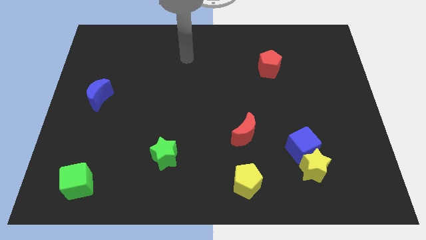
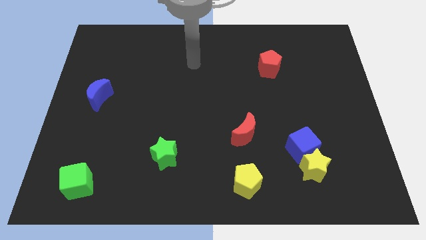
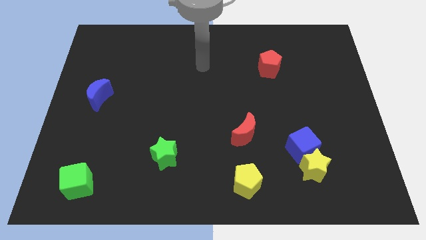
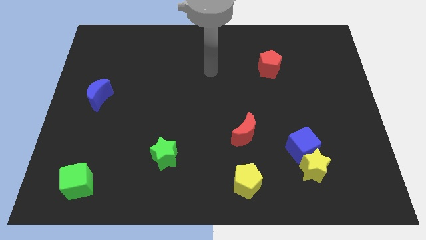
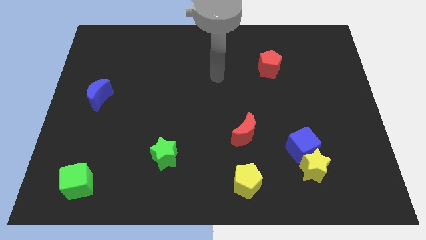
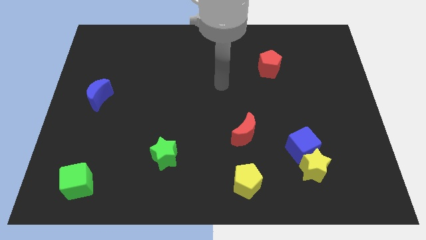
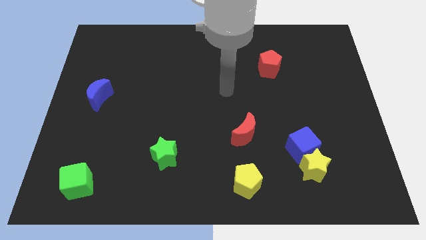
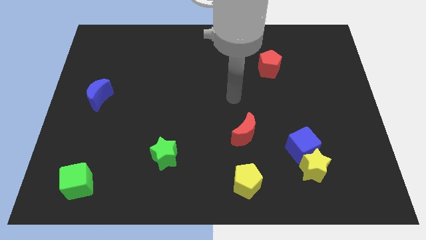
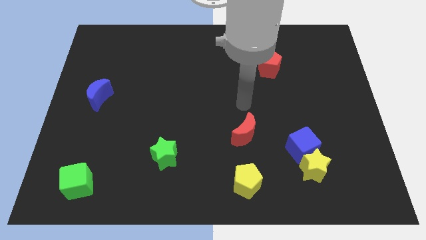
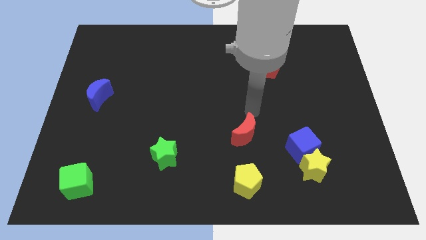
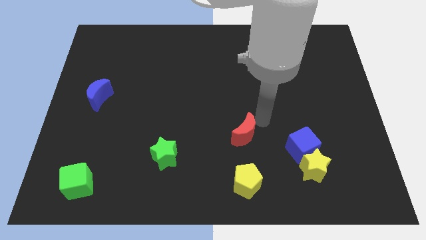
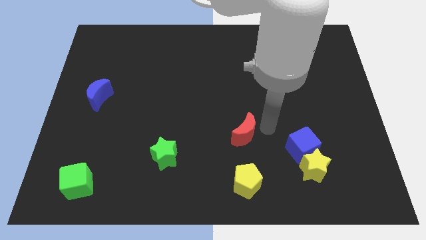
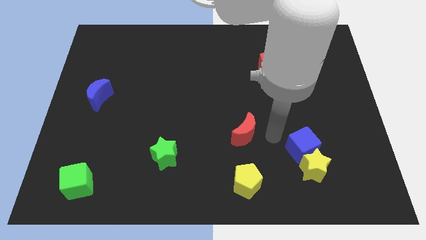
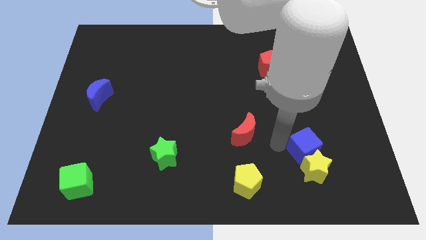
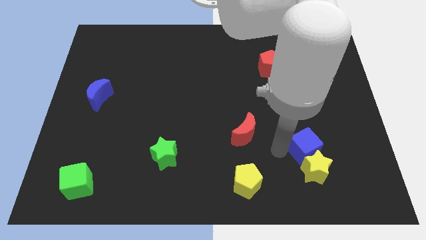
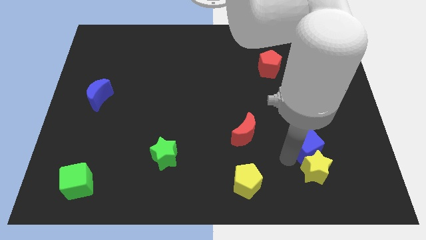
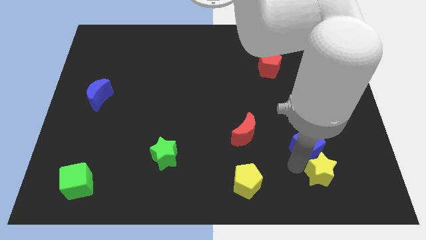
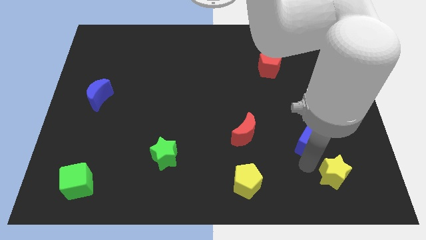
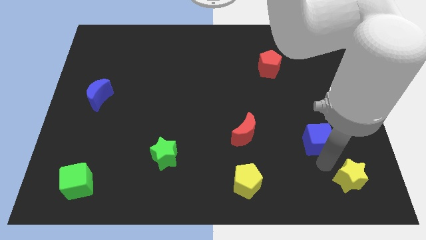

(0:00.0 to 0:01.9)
separate the blue cube from the yellow star

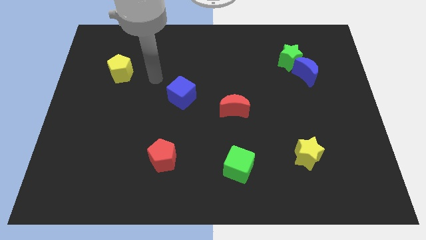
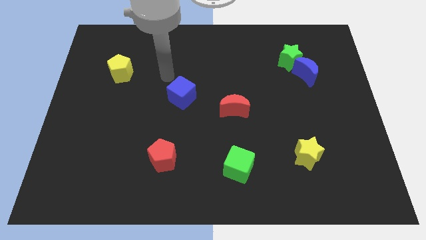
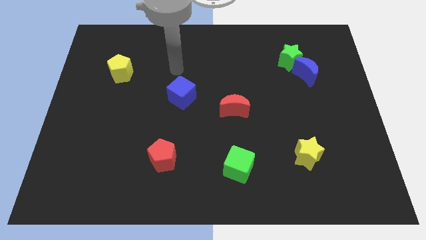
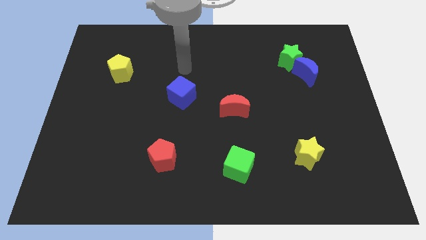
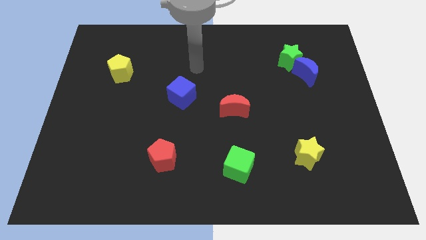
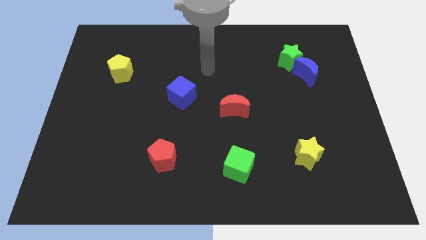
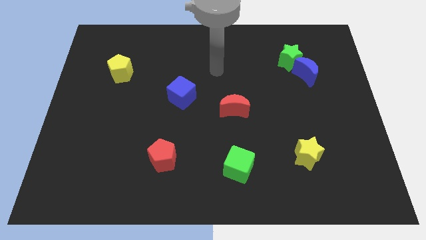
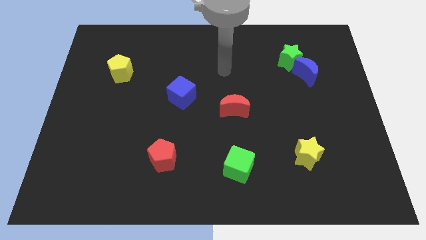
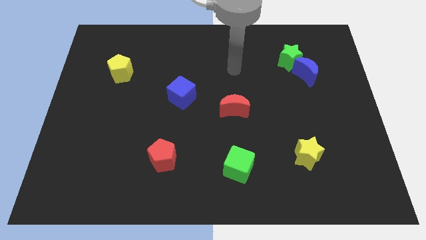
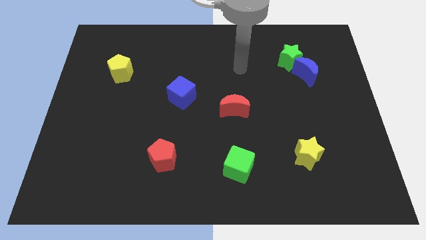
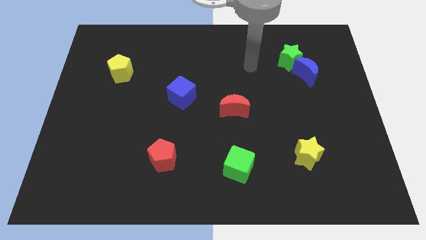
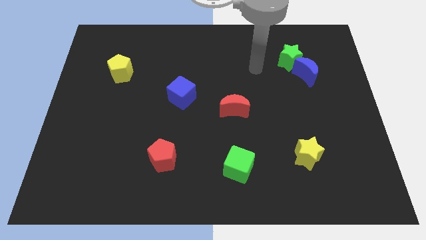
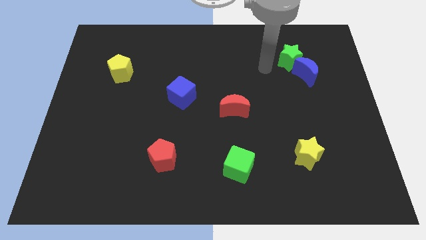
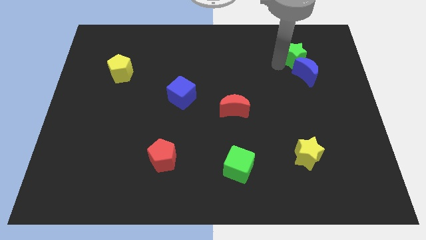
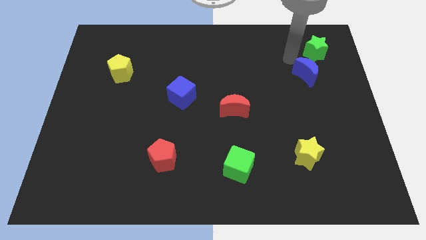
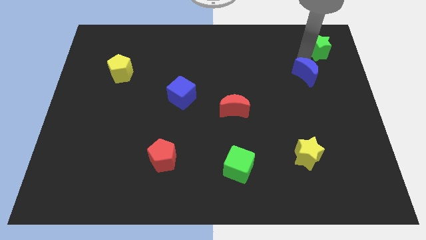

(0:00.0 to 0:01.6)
separate the blue moon from the green star

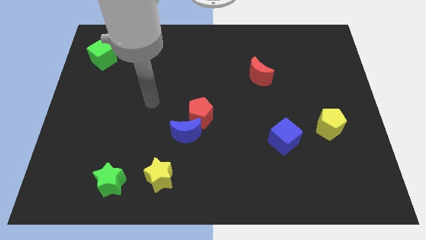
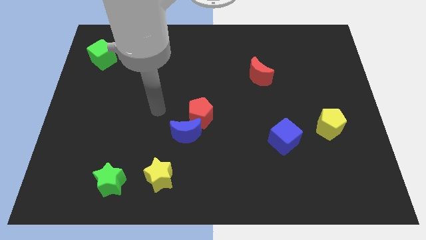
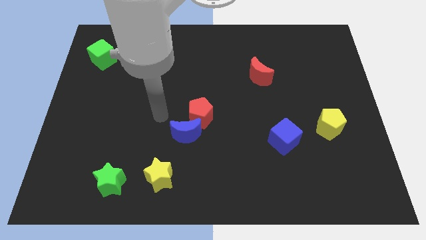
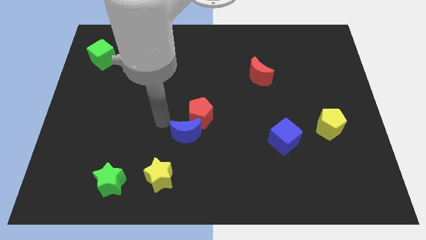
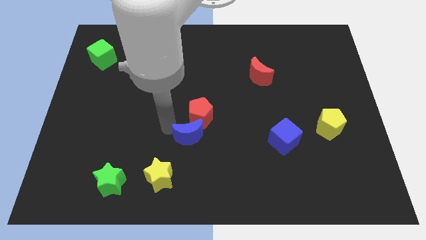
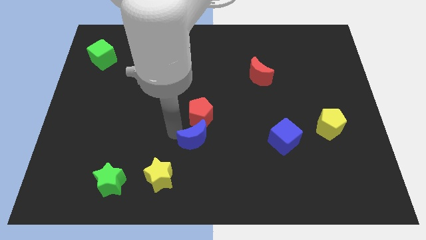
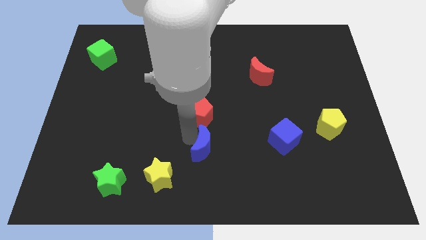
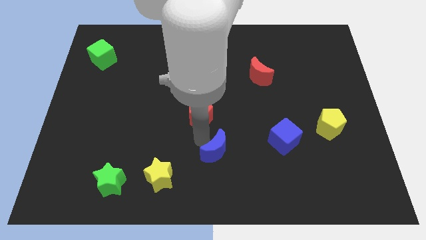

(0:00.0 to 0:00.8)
pull the red pentagon apart from the blue moon

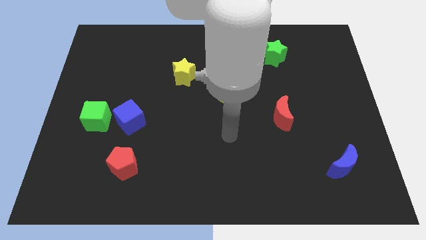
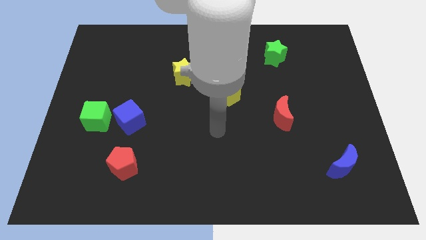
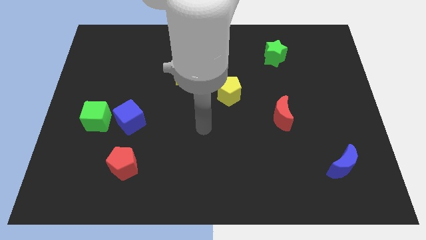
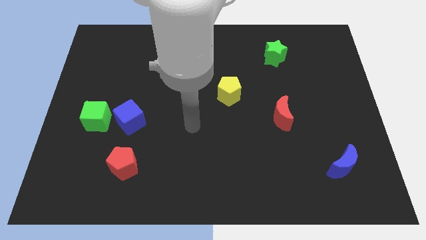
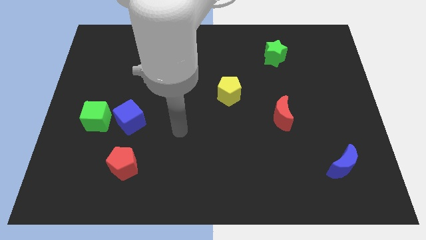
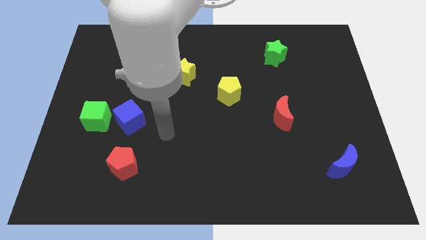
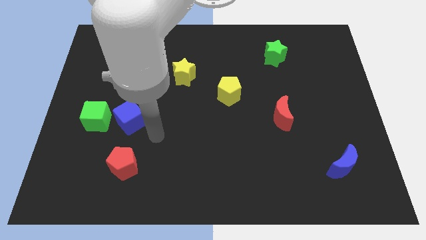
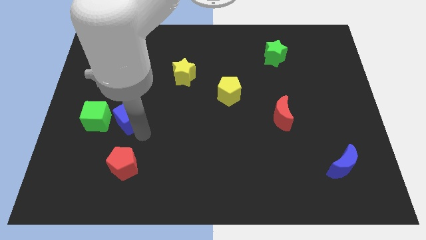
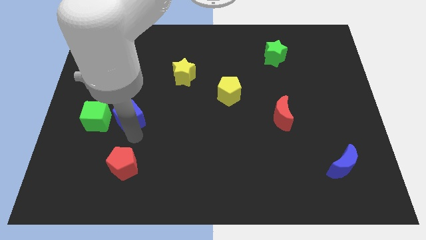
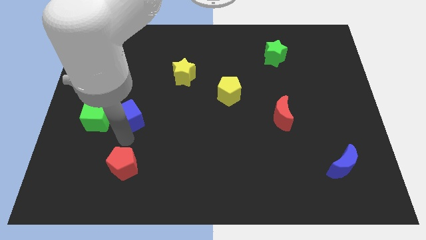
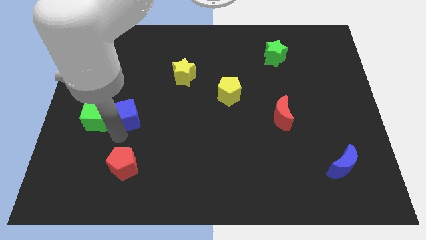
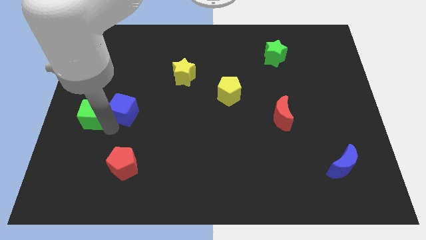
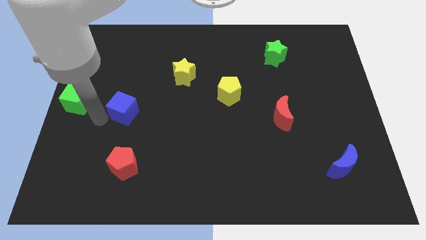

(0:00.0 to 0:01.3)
pull the blue cube apart from the green cube

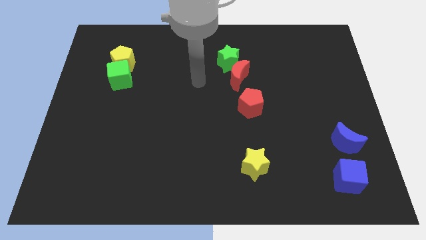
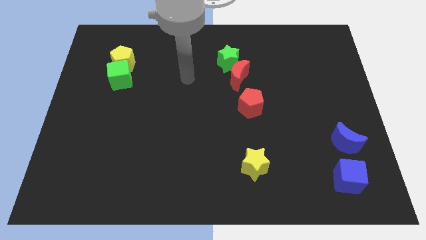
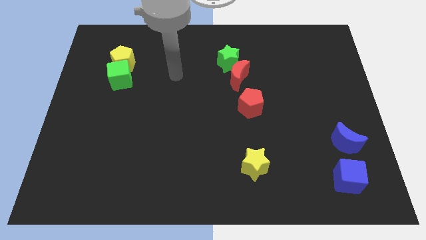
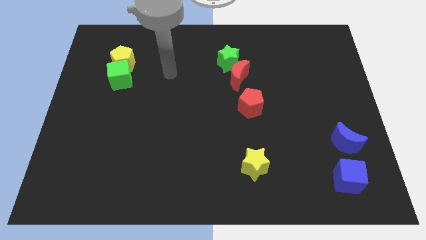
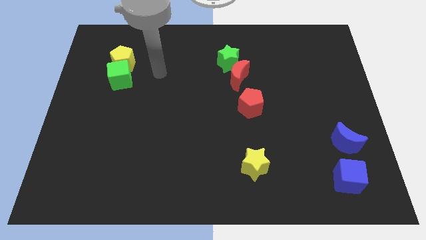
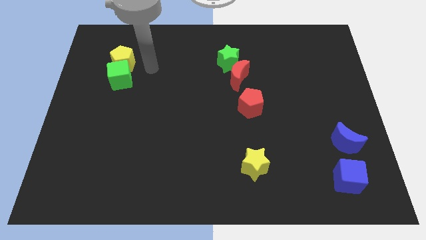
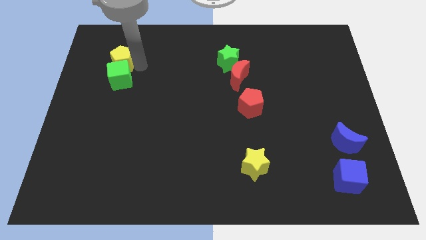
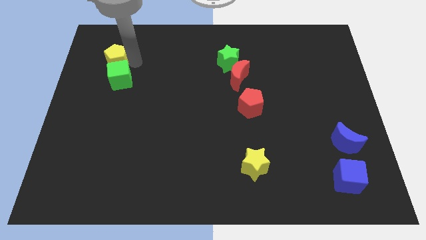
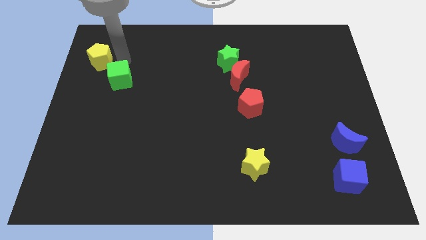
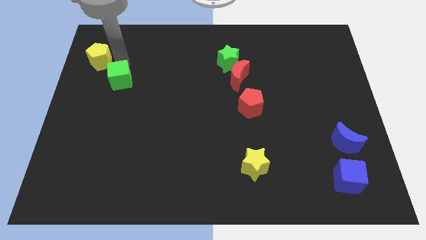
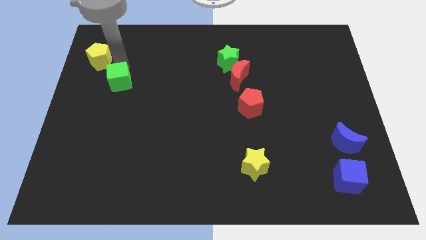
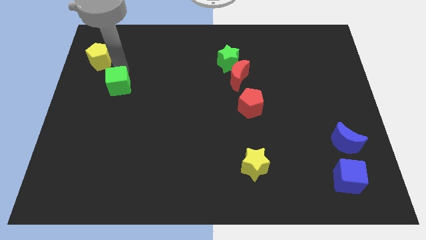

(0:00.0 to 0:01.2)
pull the green cube apart from the yellow pentagon

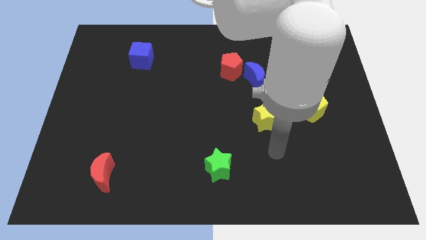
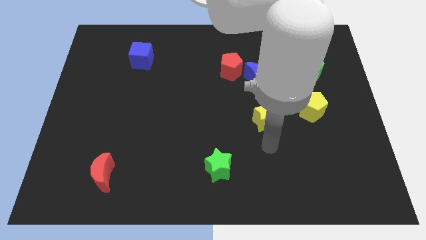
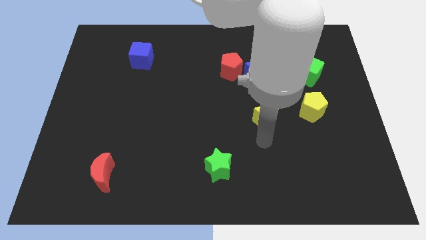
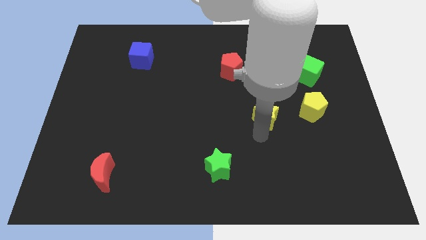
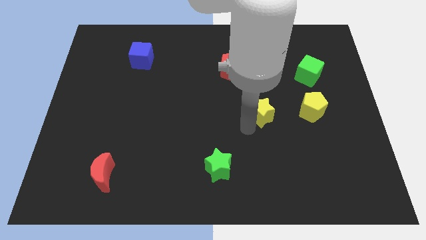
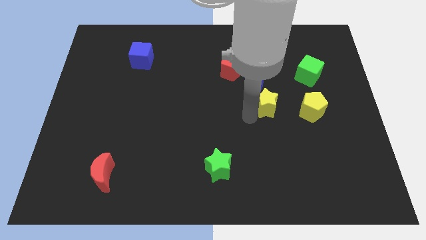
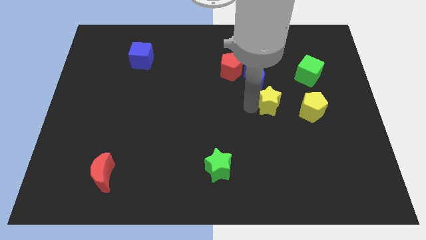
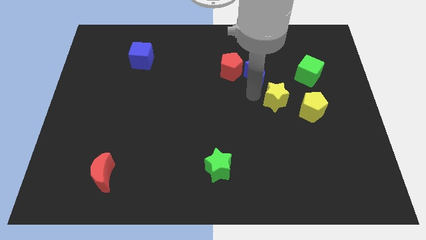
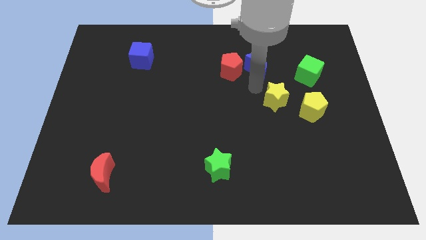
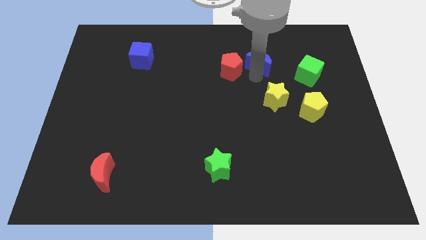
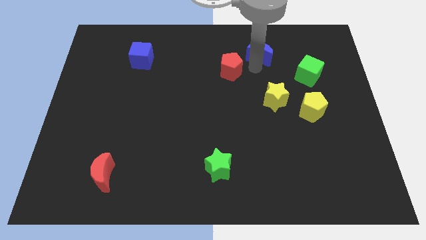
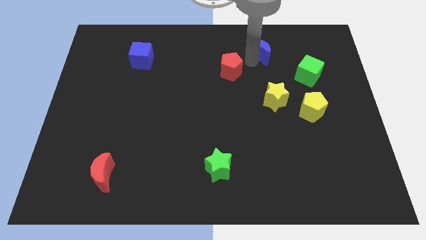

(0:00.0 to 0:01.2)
separate the red pentagon from the blue moon

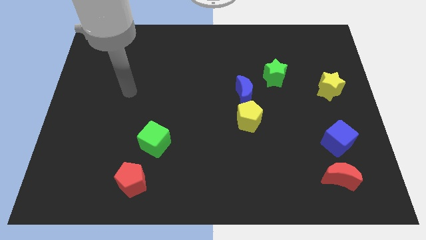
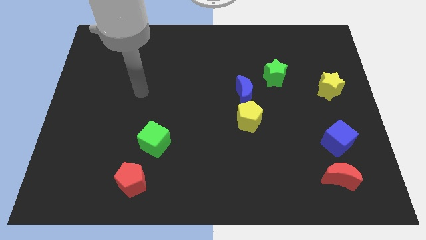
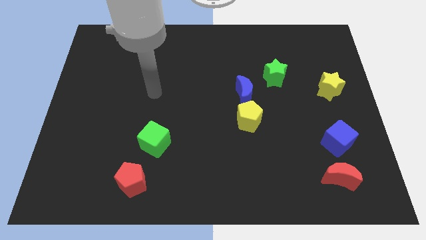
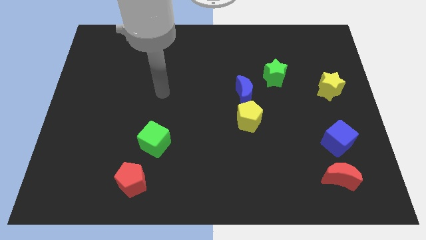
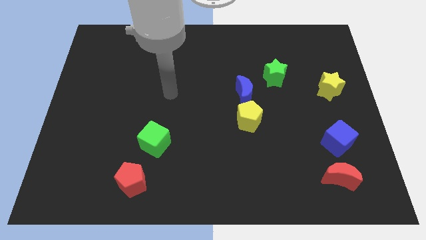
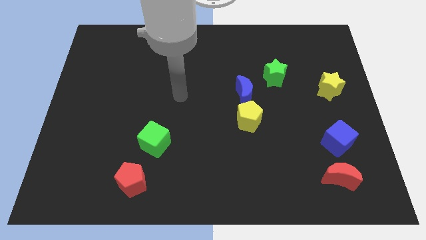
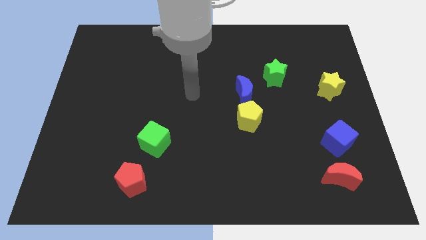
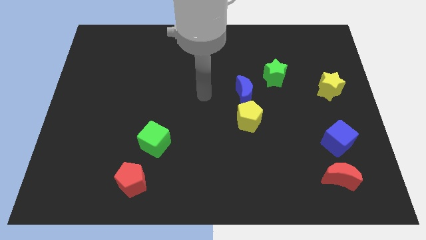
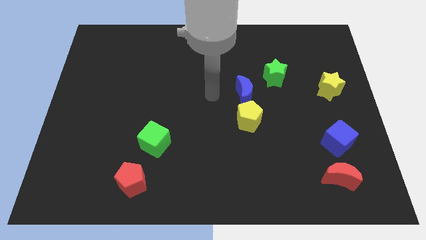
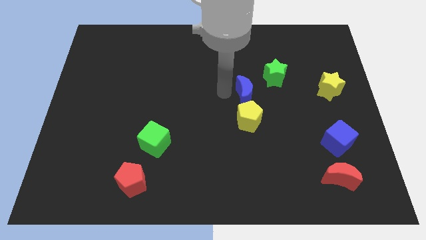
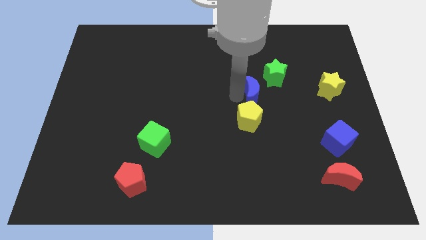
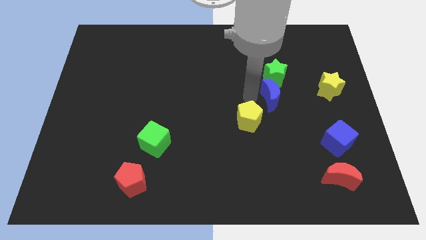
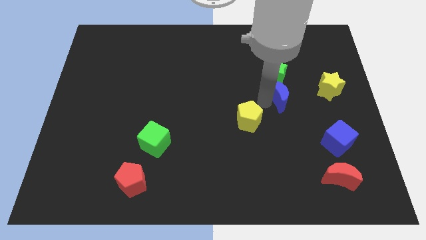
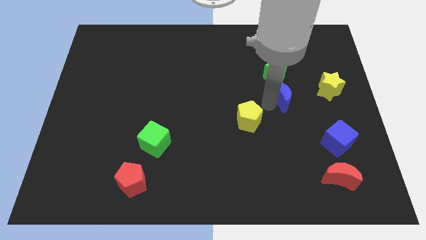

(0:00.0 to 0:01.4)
separate the yellow pentagon from the blue moon
